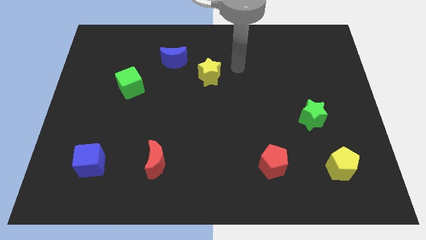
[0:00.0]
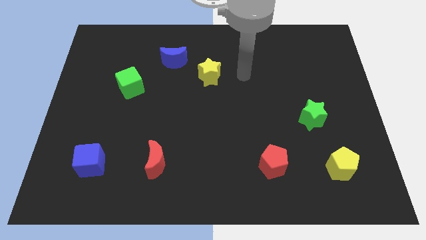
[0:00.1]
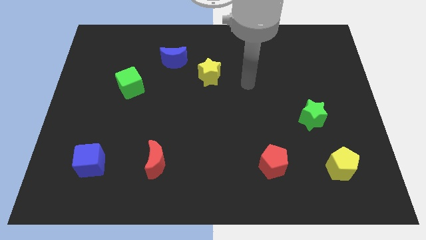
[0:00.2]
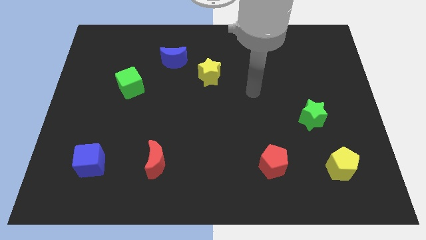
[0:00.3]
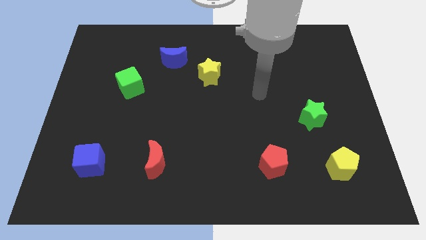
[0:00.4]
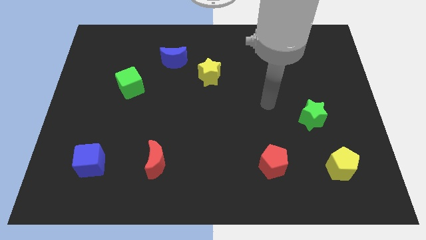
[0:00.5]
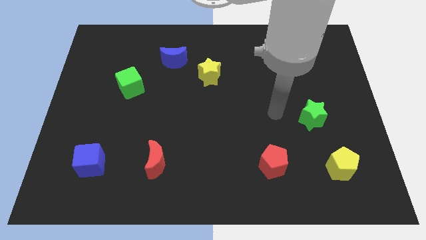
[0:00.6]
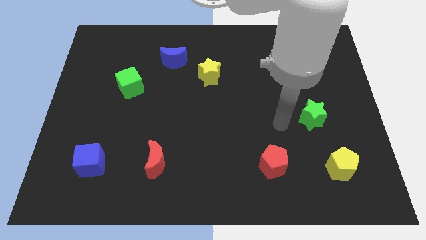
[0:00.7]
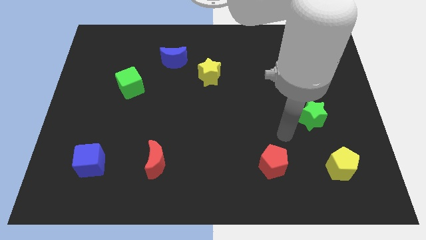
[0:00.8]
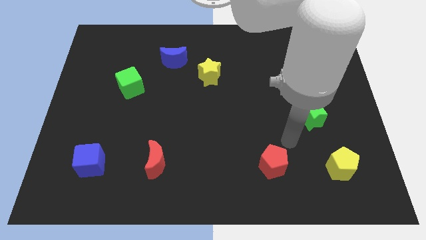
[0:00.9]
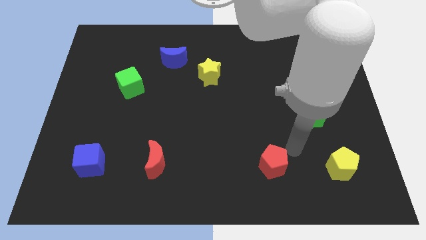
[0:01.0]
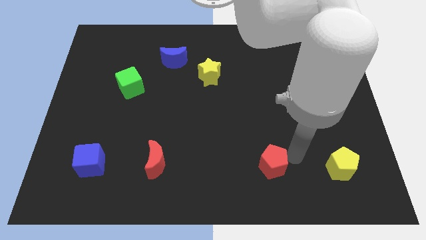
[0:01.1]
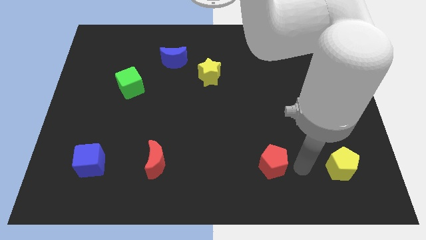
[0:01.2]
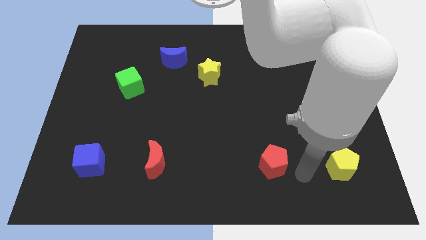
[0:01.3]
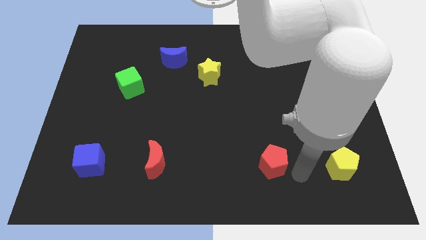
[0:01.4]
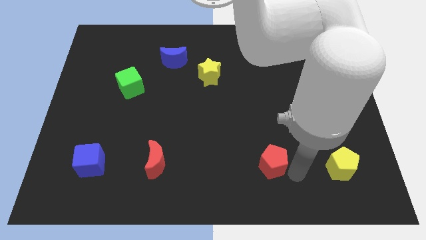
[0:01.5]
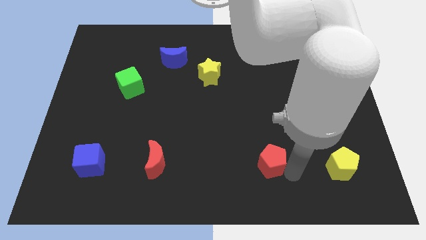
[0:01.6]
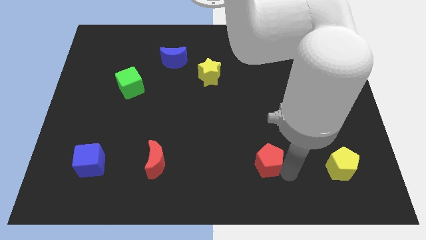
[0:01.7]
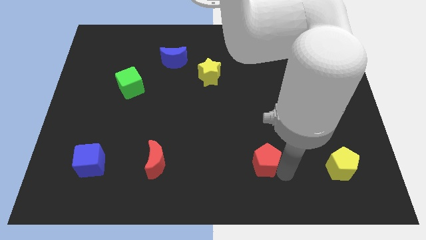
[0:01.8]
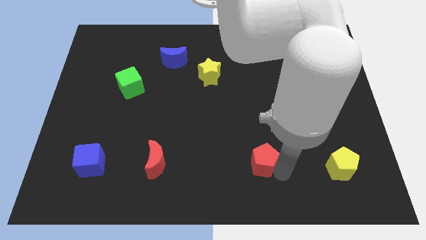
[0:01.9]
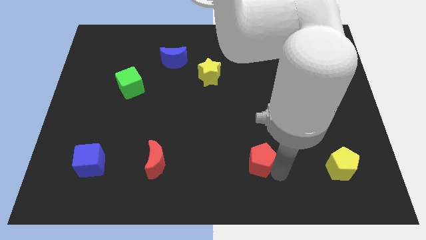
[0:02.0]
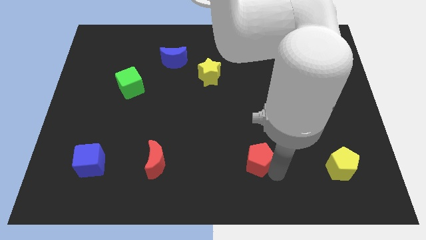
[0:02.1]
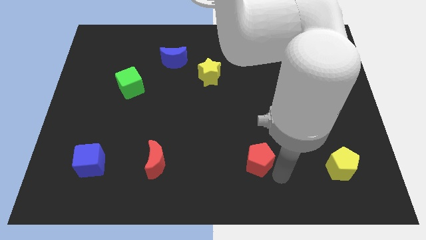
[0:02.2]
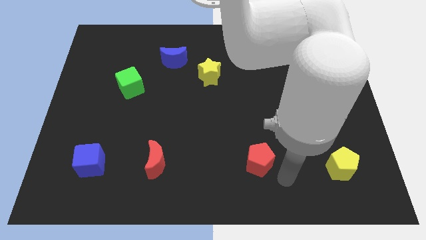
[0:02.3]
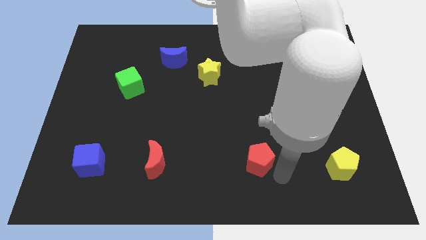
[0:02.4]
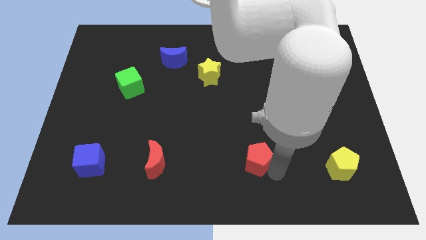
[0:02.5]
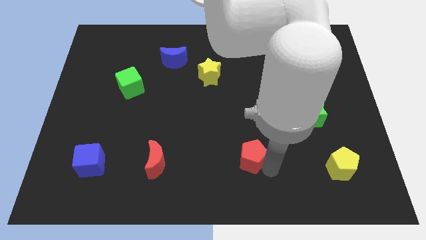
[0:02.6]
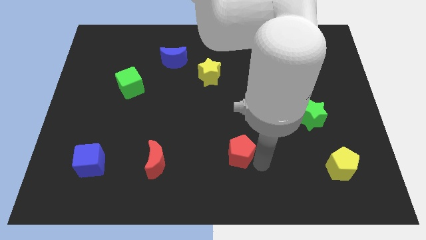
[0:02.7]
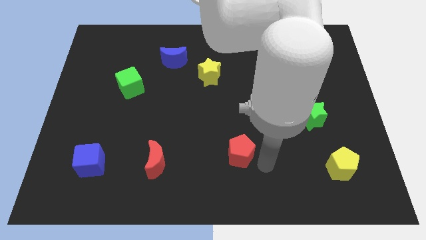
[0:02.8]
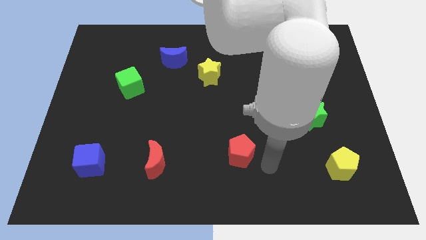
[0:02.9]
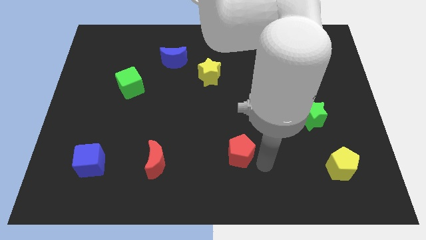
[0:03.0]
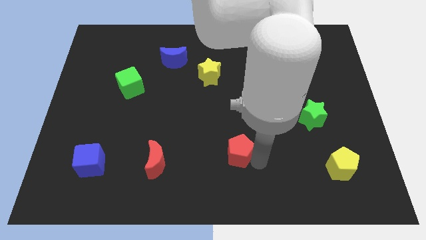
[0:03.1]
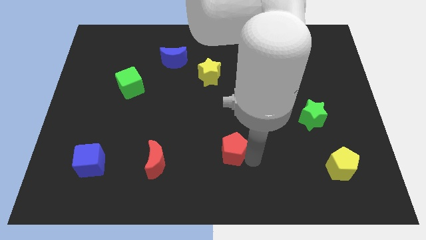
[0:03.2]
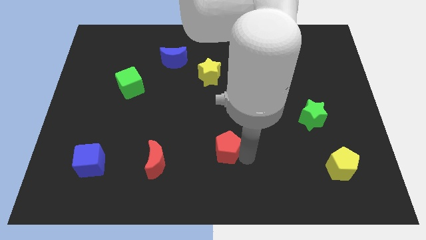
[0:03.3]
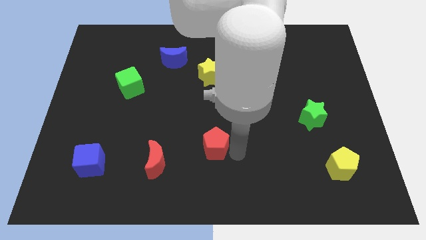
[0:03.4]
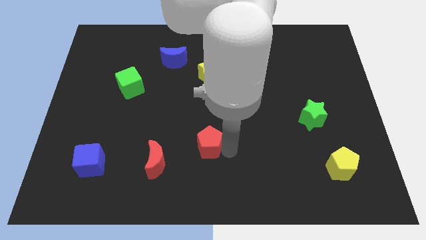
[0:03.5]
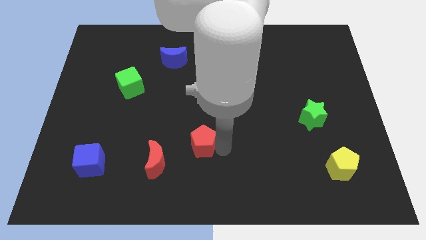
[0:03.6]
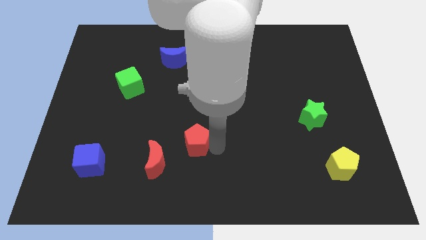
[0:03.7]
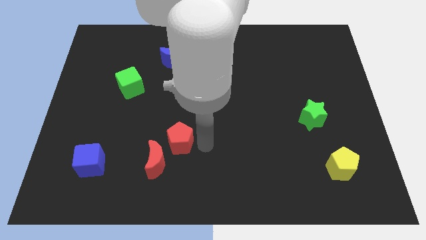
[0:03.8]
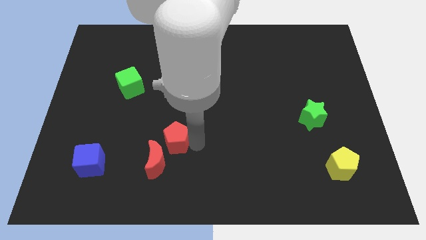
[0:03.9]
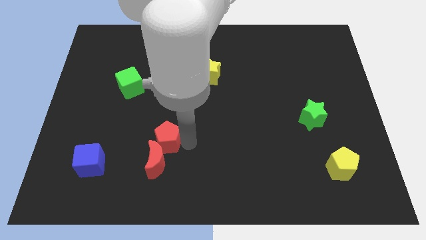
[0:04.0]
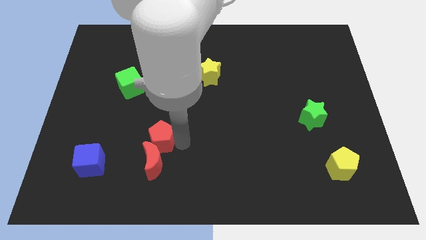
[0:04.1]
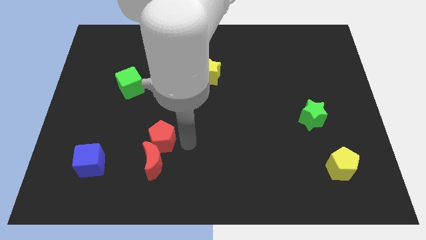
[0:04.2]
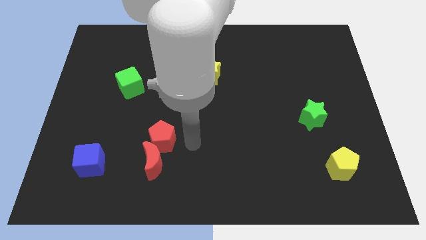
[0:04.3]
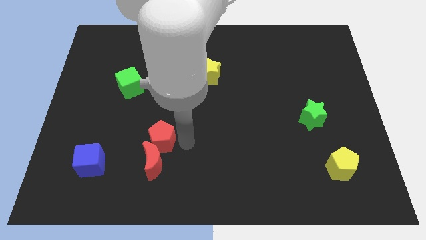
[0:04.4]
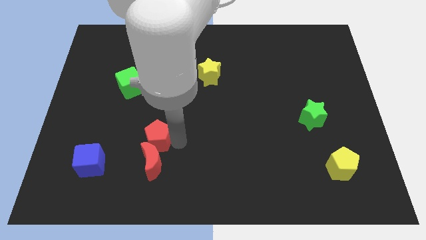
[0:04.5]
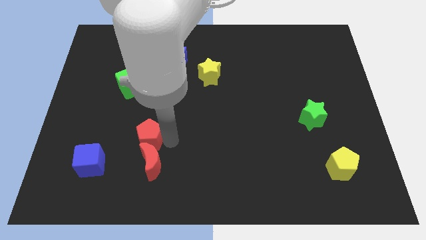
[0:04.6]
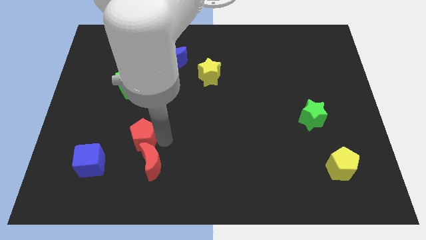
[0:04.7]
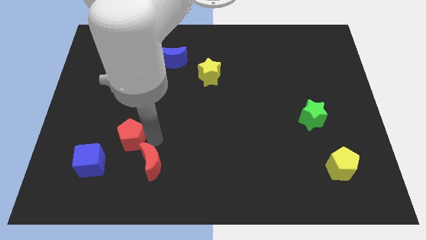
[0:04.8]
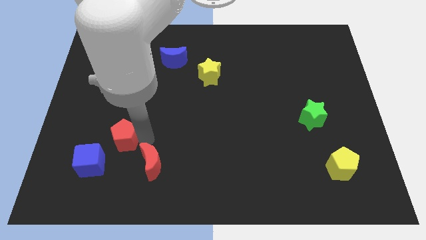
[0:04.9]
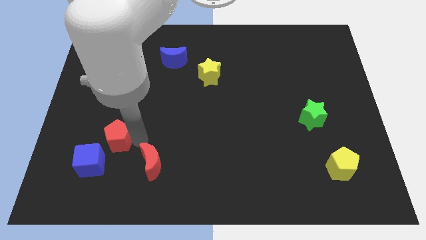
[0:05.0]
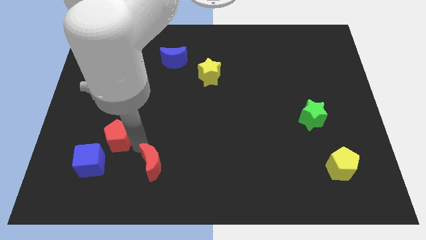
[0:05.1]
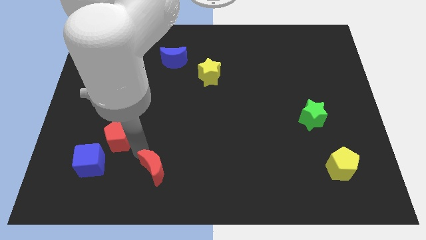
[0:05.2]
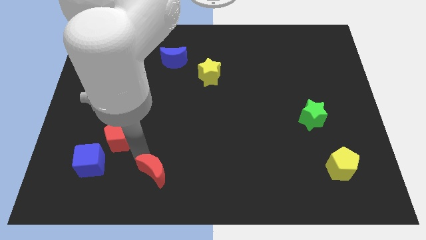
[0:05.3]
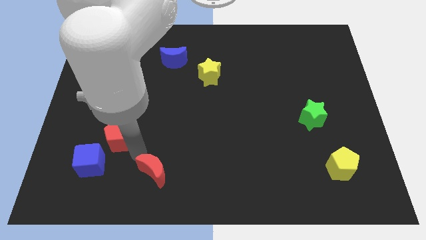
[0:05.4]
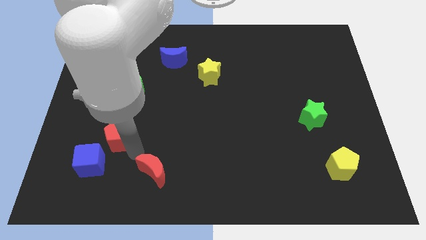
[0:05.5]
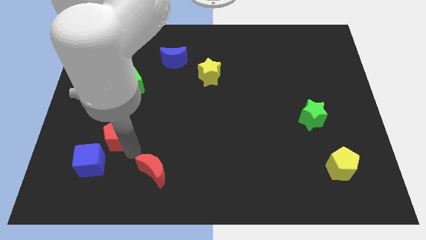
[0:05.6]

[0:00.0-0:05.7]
move the red pentagon above the blue cube

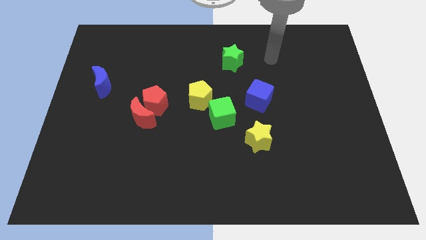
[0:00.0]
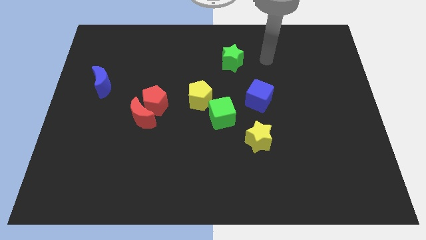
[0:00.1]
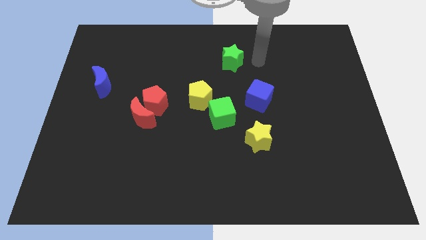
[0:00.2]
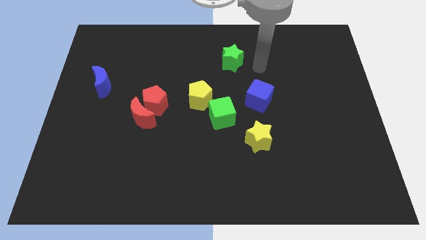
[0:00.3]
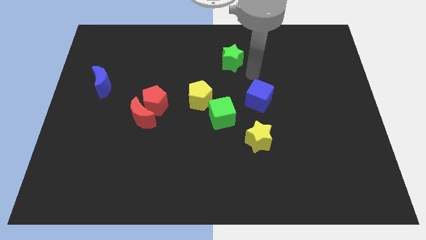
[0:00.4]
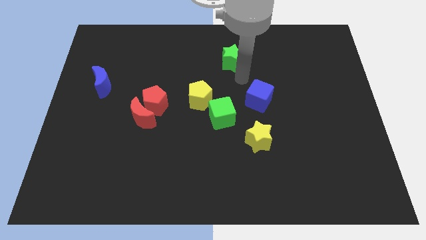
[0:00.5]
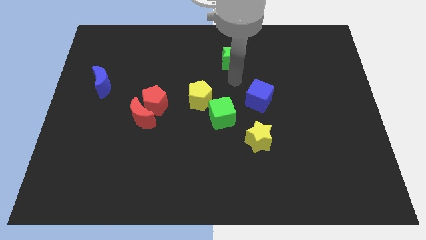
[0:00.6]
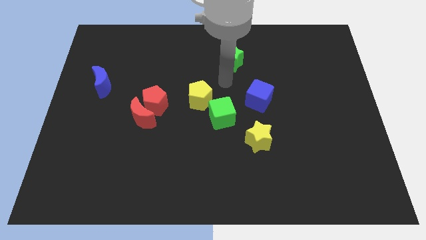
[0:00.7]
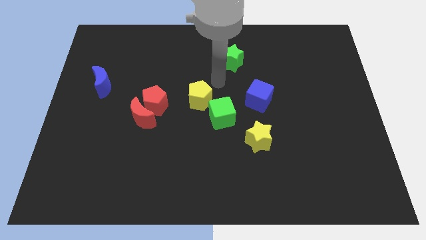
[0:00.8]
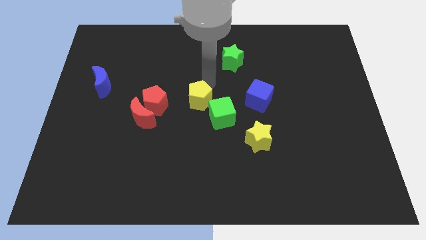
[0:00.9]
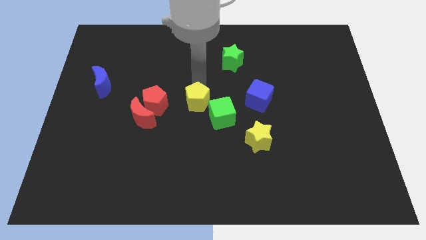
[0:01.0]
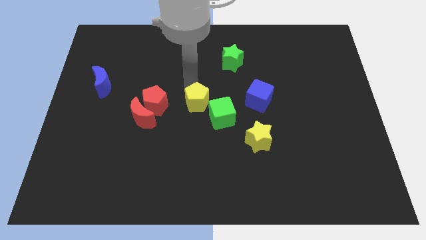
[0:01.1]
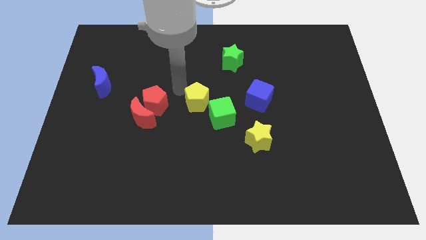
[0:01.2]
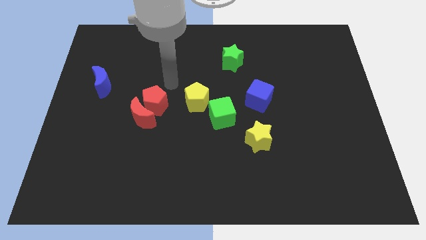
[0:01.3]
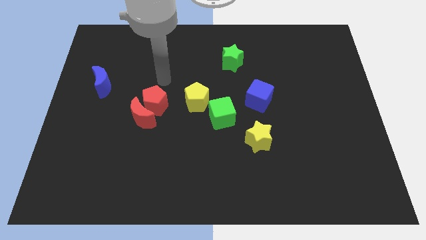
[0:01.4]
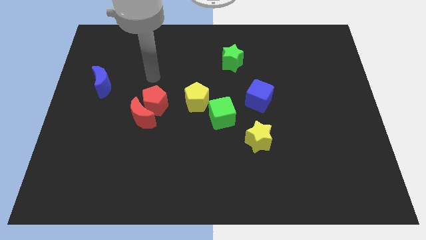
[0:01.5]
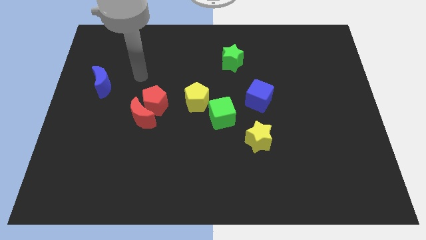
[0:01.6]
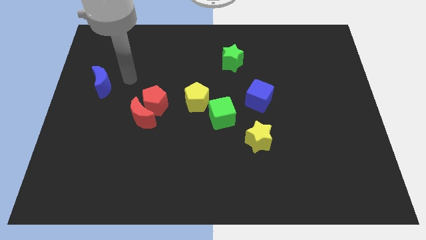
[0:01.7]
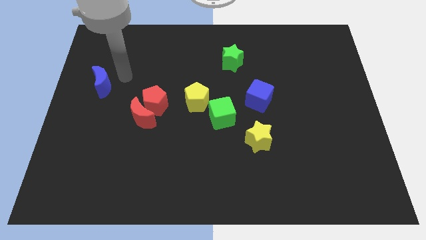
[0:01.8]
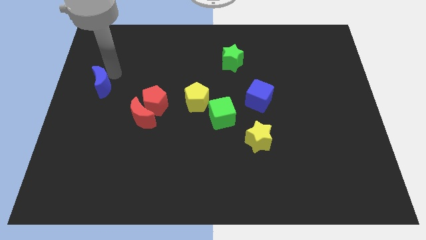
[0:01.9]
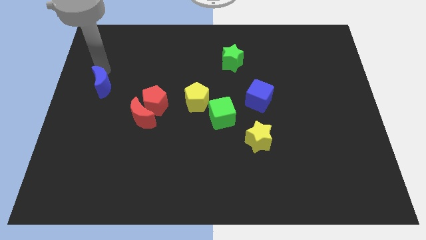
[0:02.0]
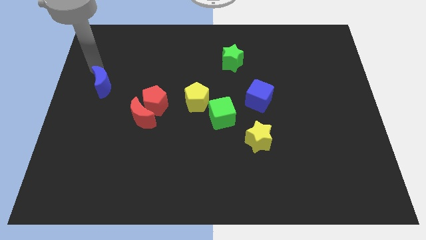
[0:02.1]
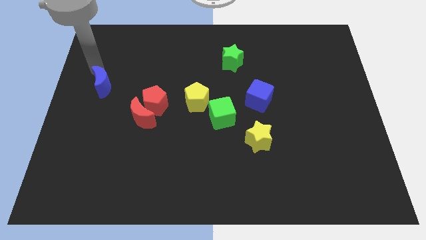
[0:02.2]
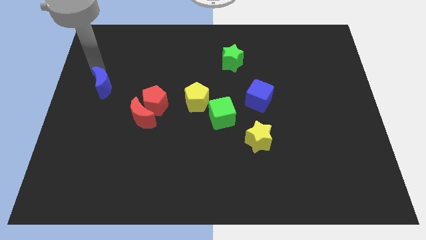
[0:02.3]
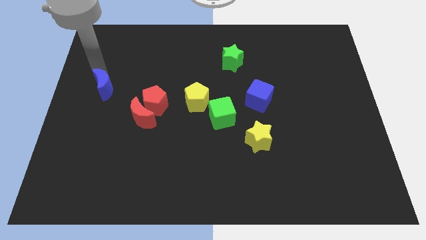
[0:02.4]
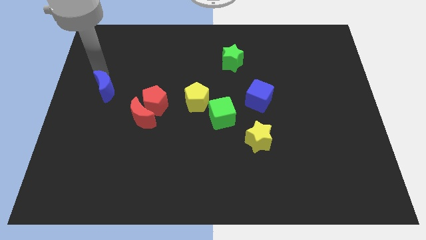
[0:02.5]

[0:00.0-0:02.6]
move the blue moon to the left of the red pentagon
